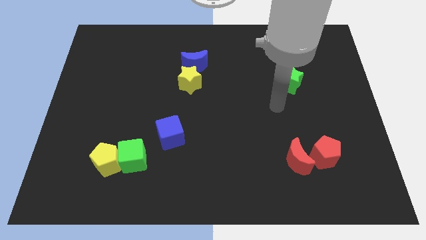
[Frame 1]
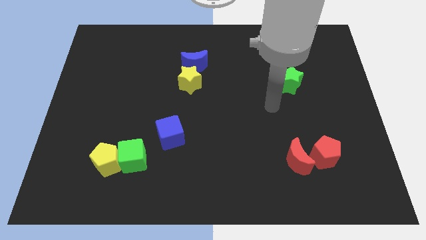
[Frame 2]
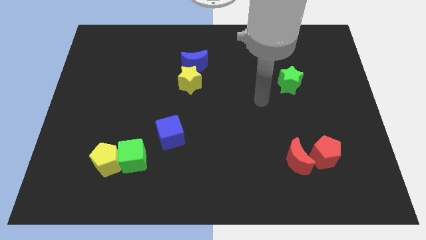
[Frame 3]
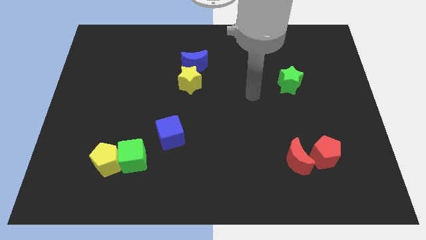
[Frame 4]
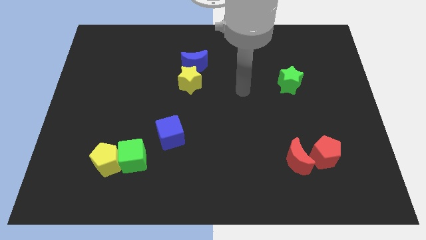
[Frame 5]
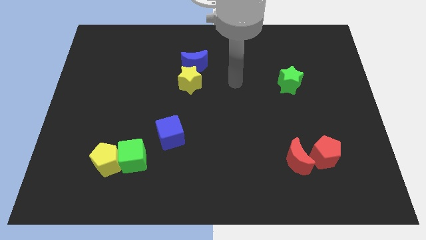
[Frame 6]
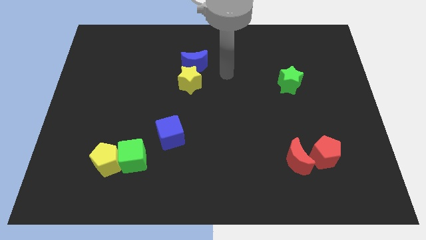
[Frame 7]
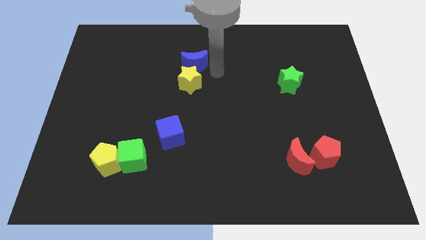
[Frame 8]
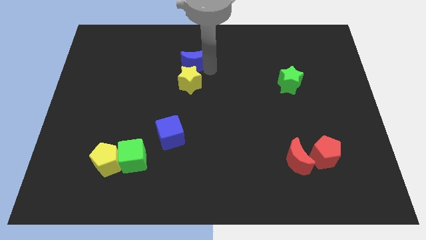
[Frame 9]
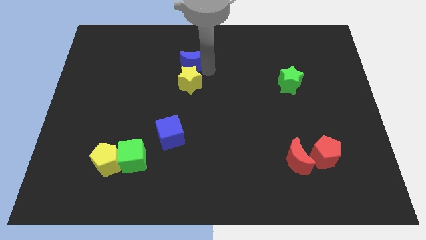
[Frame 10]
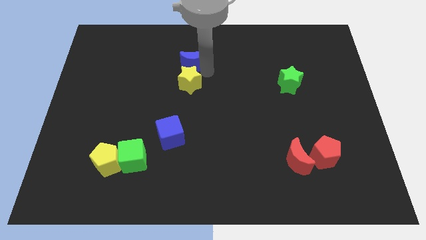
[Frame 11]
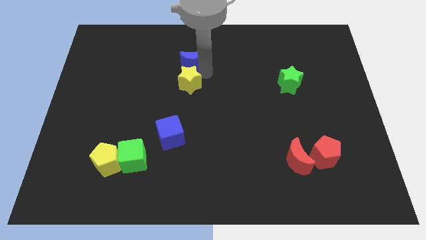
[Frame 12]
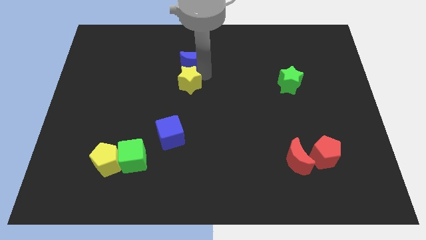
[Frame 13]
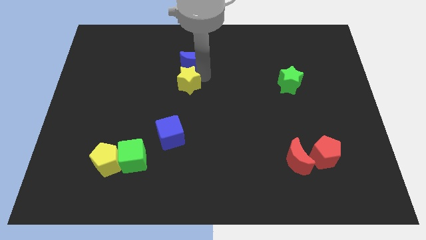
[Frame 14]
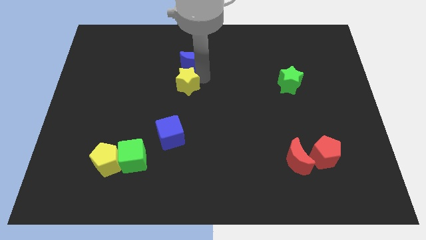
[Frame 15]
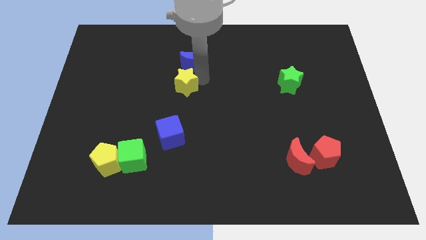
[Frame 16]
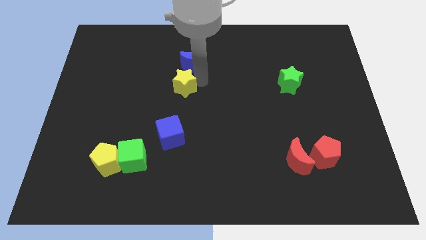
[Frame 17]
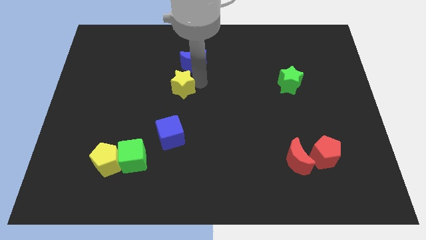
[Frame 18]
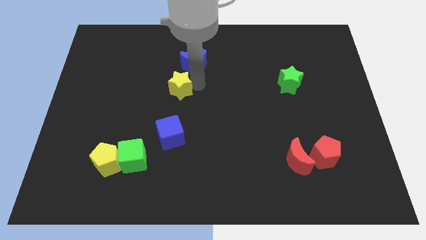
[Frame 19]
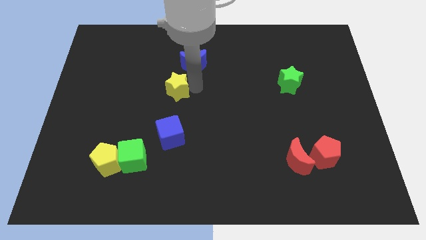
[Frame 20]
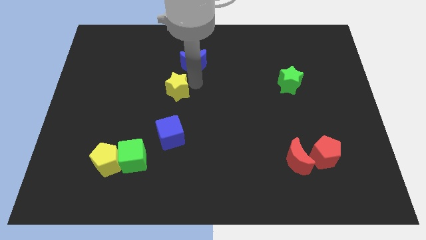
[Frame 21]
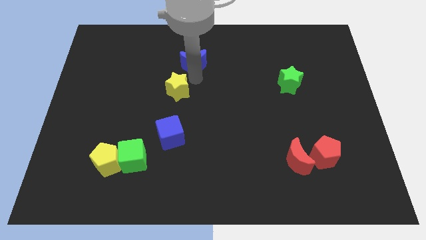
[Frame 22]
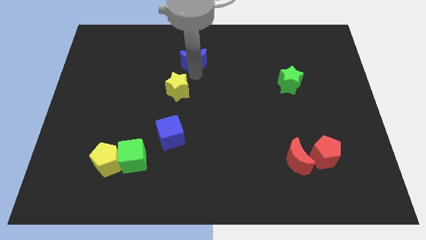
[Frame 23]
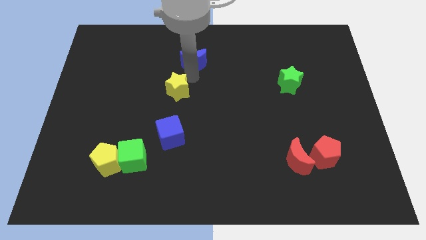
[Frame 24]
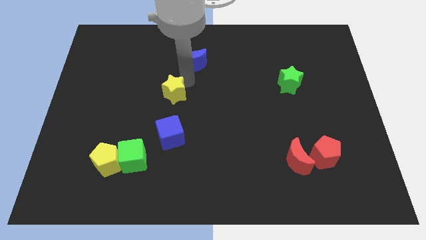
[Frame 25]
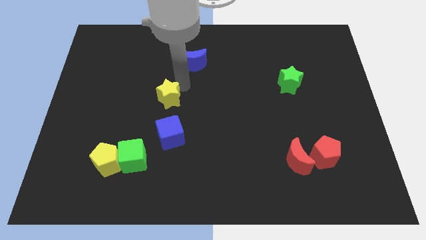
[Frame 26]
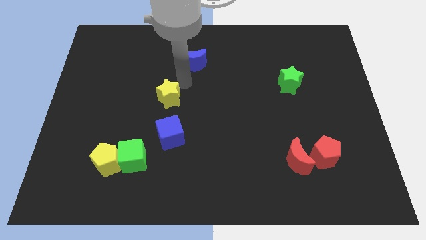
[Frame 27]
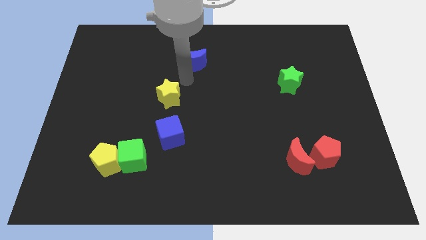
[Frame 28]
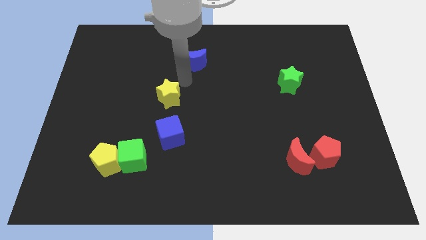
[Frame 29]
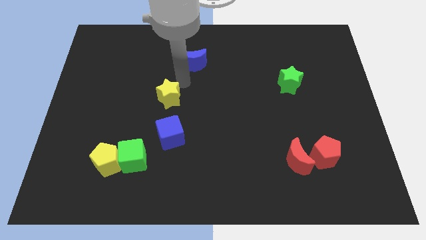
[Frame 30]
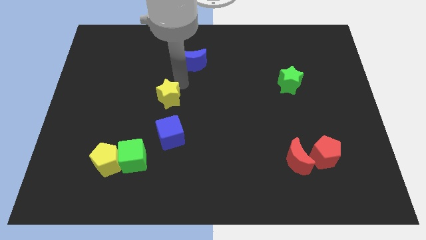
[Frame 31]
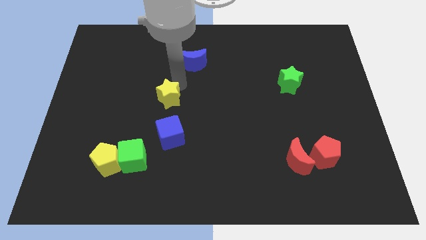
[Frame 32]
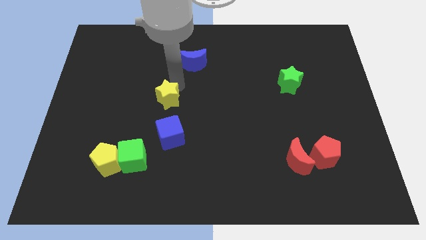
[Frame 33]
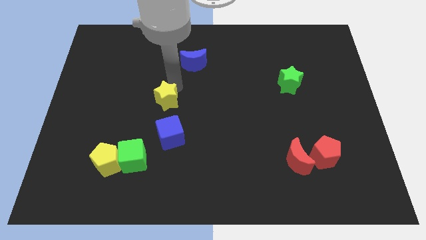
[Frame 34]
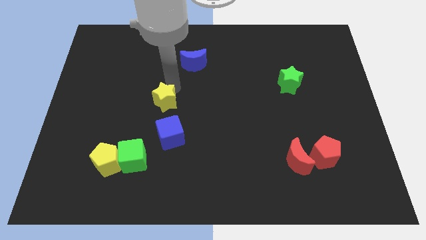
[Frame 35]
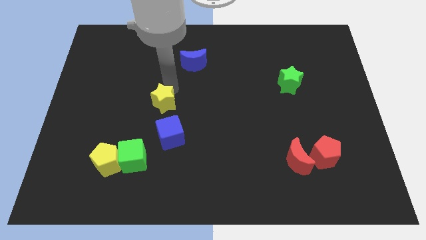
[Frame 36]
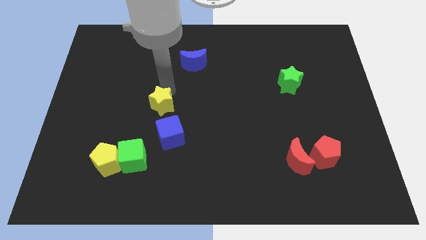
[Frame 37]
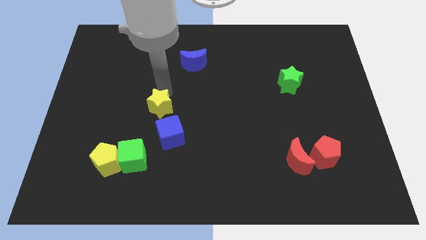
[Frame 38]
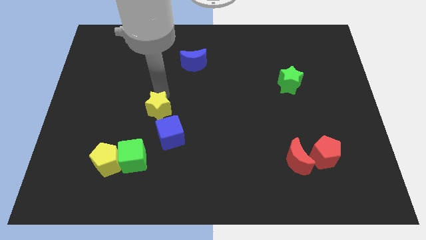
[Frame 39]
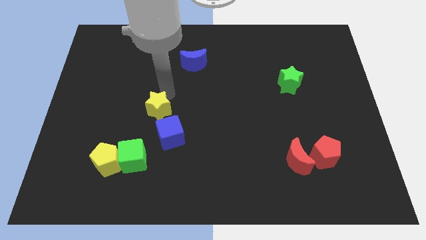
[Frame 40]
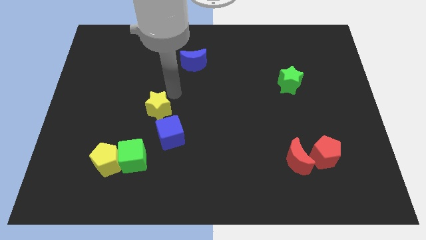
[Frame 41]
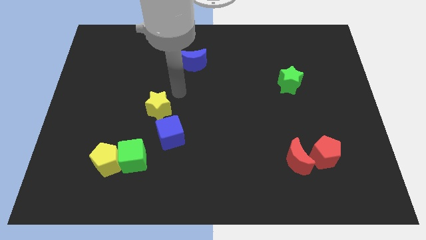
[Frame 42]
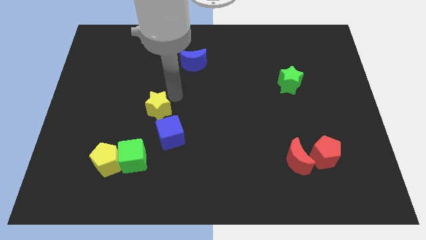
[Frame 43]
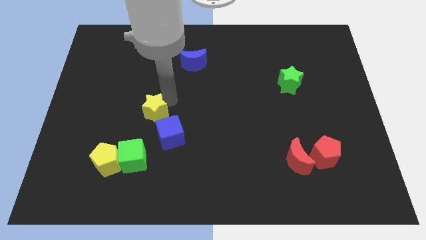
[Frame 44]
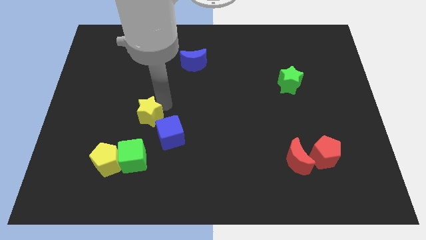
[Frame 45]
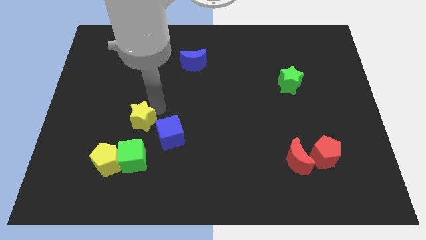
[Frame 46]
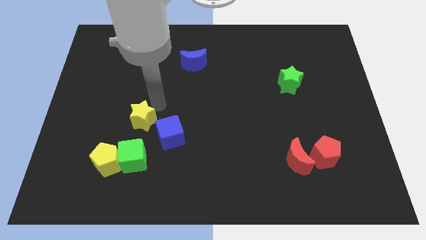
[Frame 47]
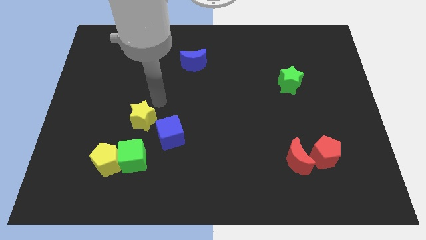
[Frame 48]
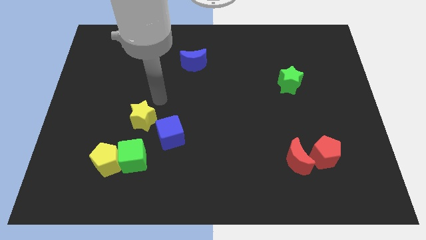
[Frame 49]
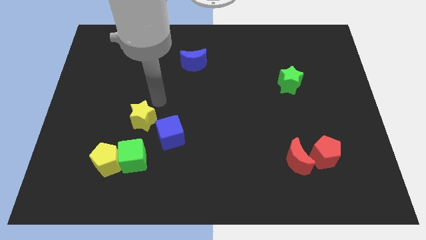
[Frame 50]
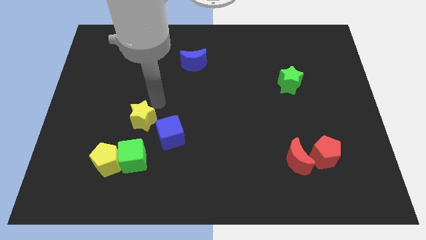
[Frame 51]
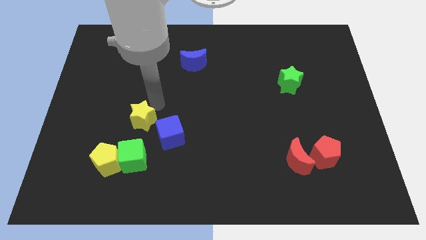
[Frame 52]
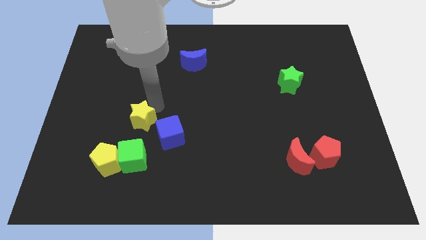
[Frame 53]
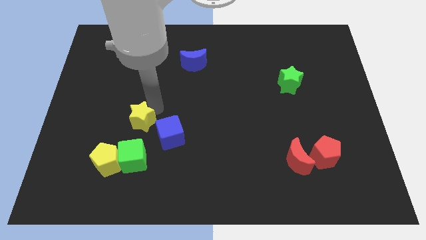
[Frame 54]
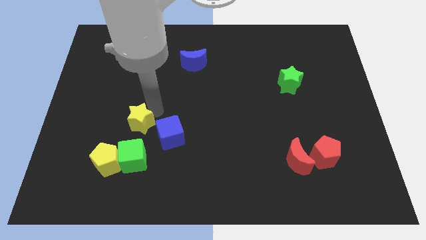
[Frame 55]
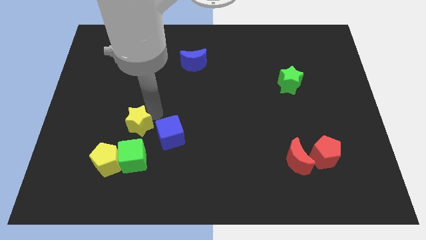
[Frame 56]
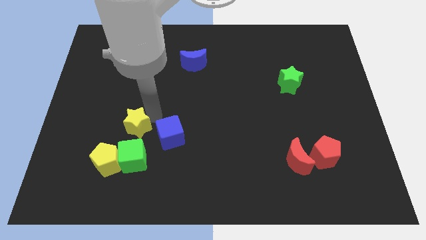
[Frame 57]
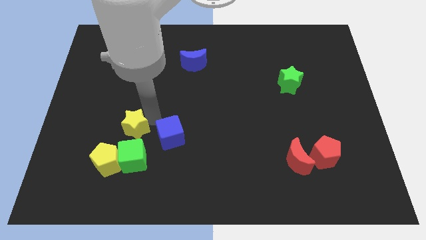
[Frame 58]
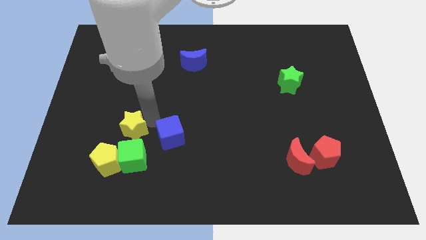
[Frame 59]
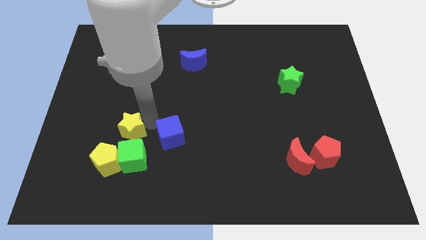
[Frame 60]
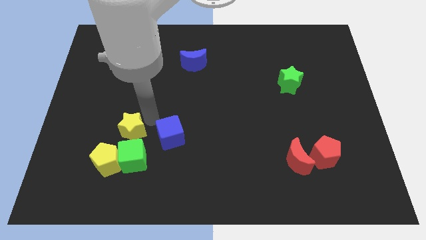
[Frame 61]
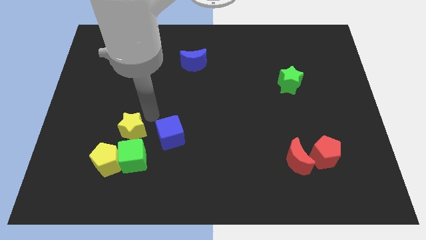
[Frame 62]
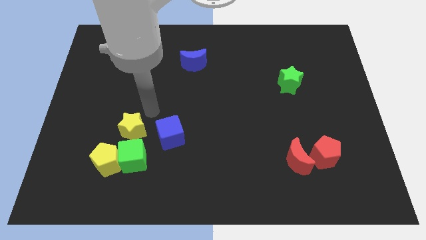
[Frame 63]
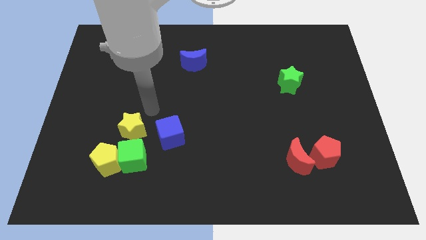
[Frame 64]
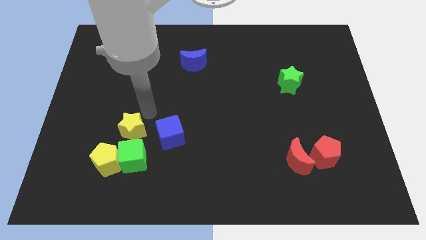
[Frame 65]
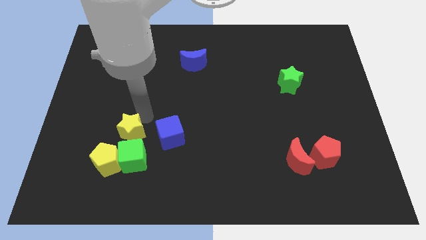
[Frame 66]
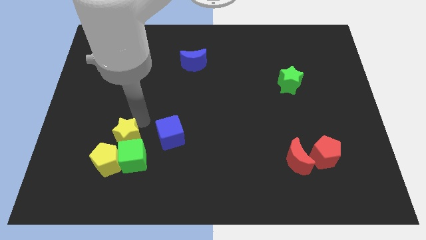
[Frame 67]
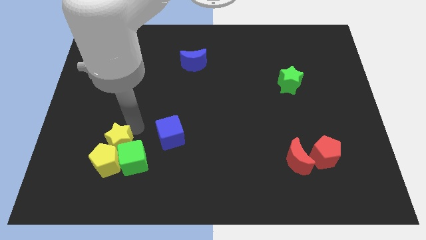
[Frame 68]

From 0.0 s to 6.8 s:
slide the yellow star close to the yellow pentagon

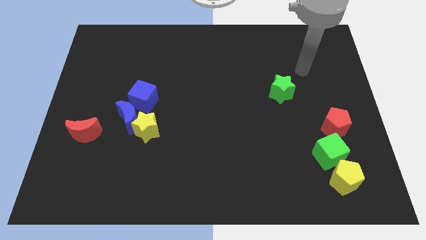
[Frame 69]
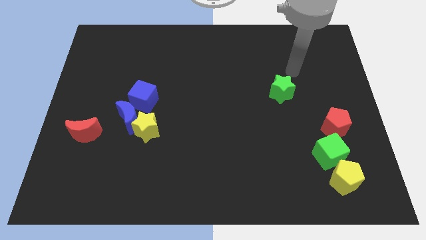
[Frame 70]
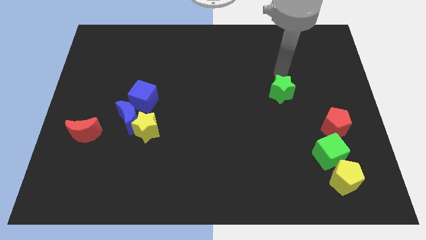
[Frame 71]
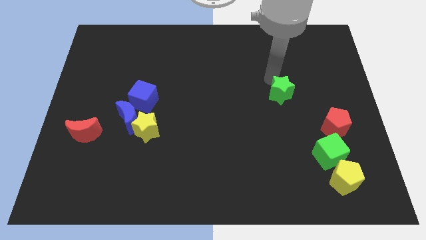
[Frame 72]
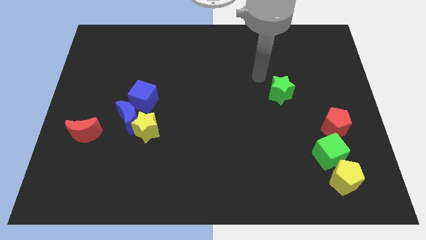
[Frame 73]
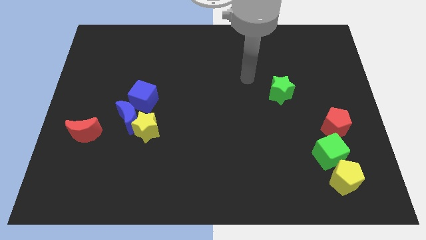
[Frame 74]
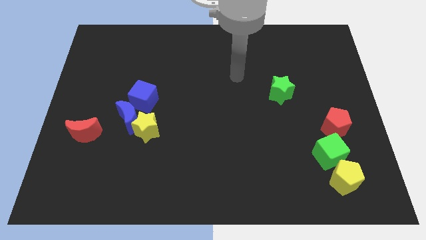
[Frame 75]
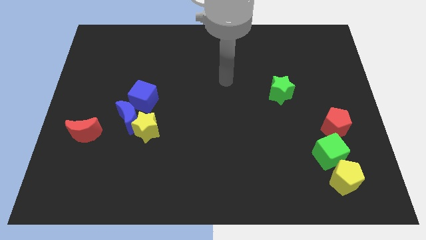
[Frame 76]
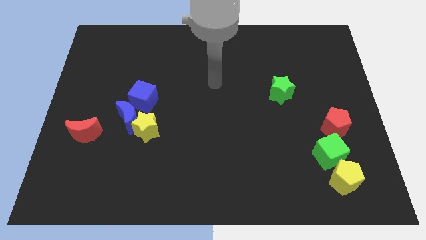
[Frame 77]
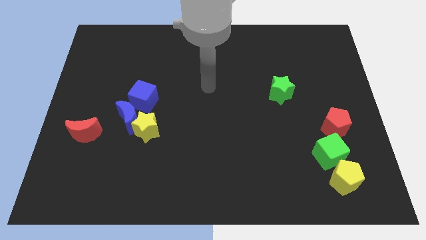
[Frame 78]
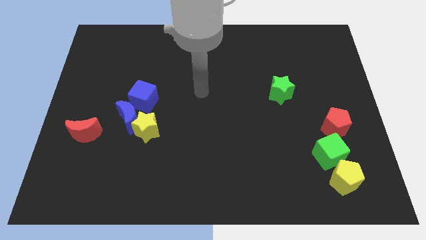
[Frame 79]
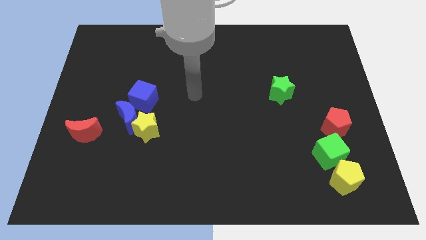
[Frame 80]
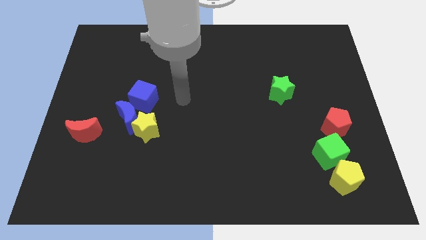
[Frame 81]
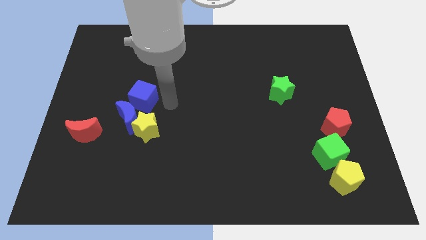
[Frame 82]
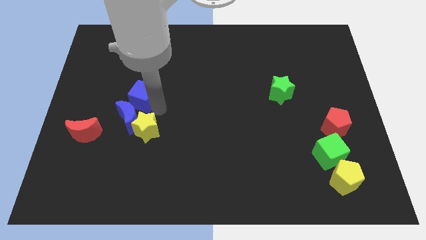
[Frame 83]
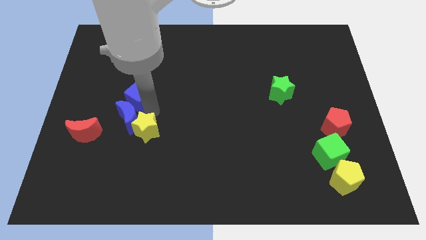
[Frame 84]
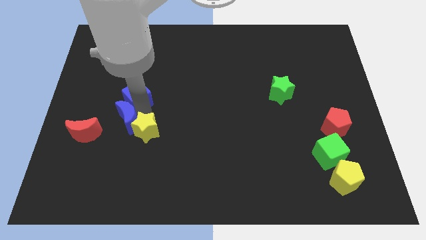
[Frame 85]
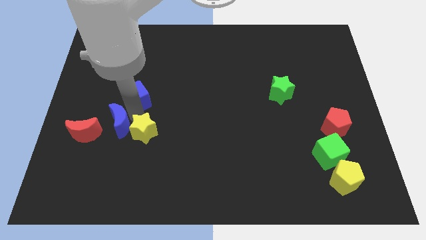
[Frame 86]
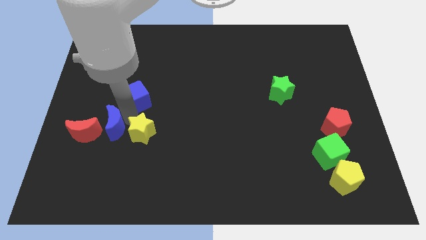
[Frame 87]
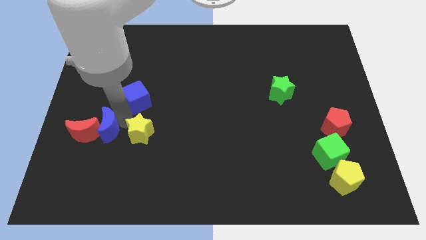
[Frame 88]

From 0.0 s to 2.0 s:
slide the blue moon to the red moon
